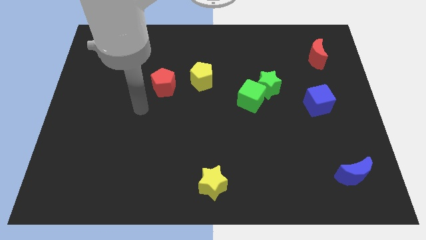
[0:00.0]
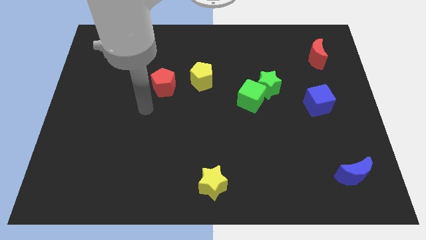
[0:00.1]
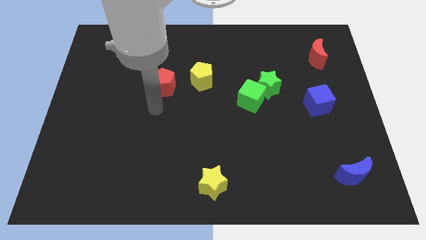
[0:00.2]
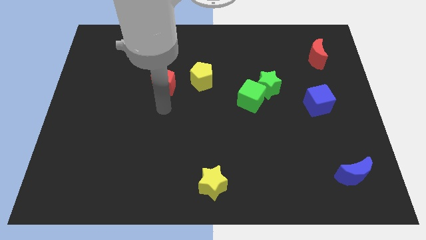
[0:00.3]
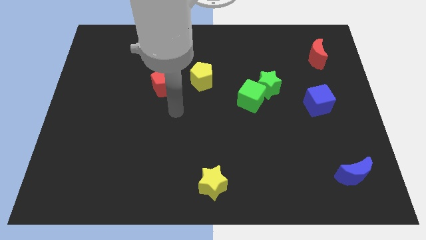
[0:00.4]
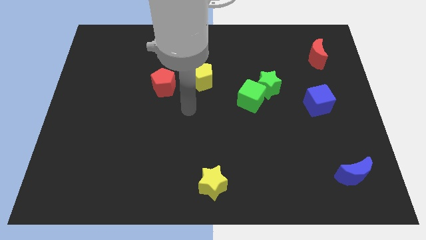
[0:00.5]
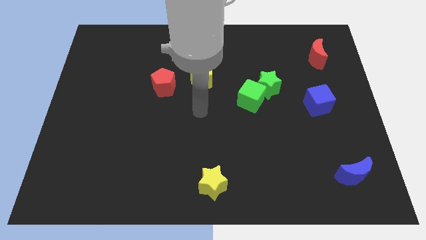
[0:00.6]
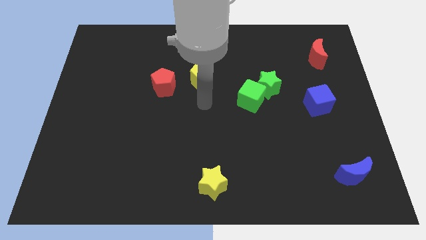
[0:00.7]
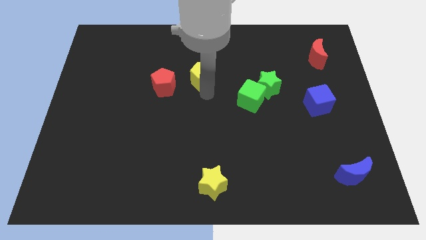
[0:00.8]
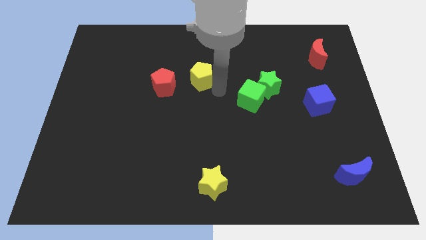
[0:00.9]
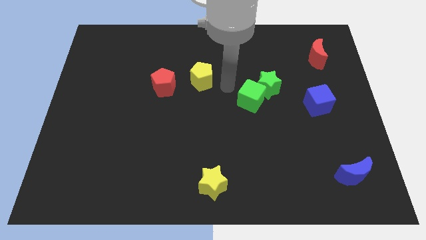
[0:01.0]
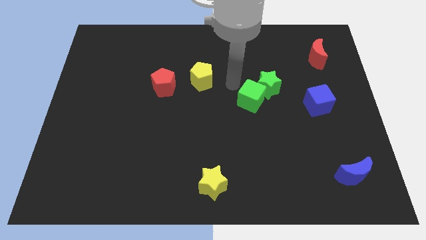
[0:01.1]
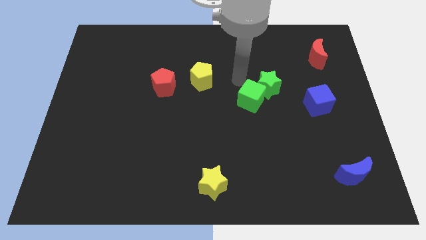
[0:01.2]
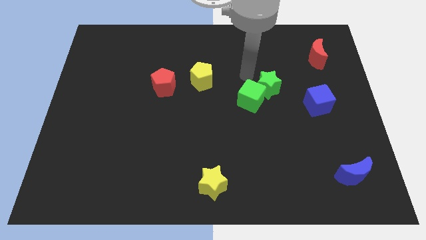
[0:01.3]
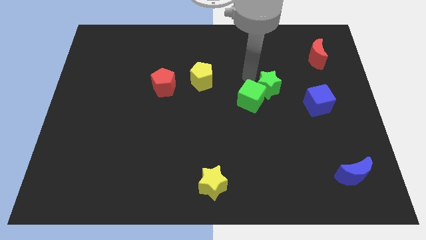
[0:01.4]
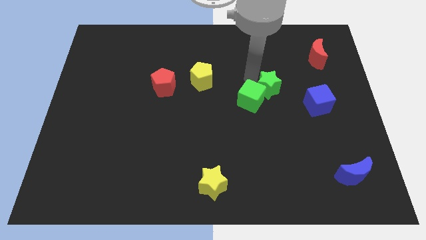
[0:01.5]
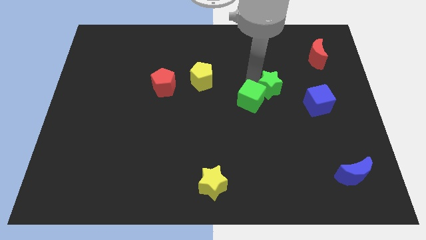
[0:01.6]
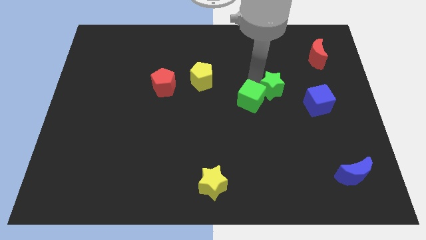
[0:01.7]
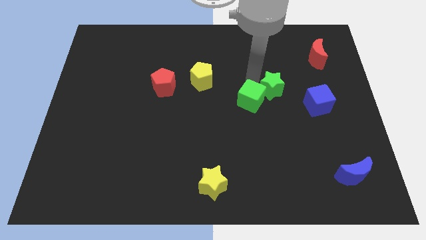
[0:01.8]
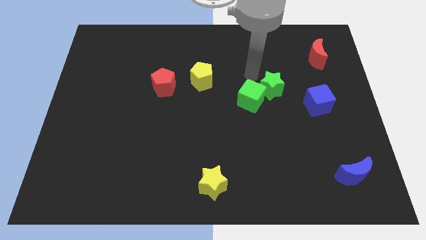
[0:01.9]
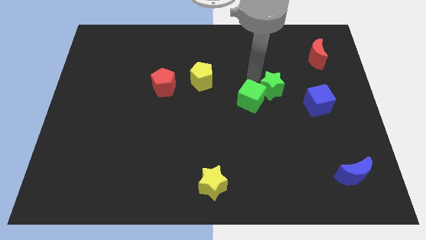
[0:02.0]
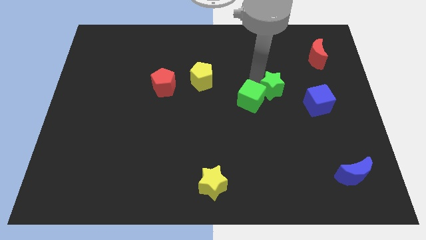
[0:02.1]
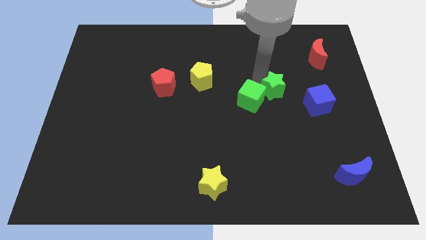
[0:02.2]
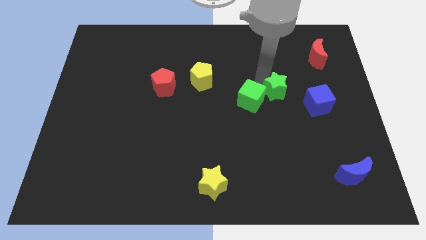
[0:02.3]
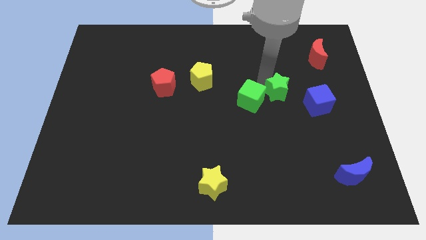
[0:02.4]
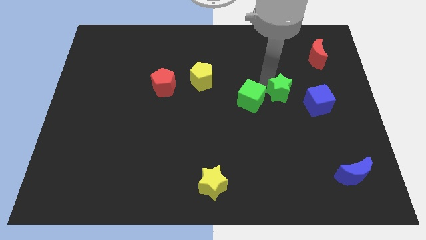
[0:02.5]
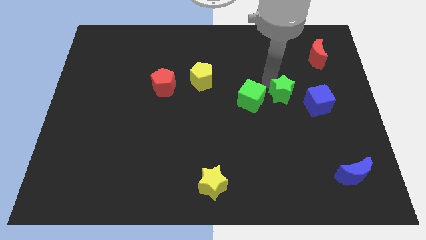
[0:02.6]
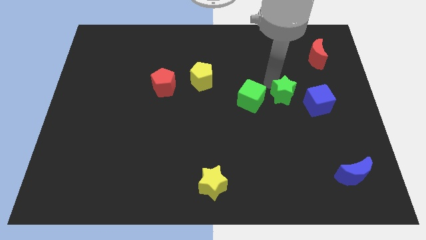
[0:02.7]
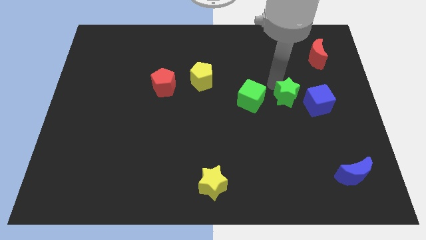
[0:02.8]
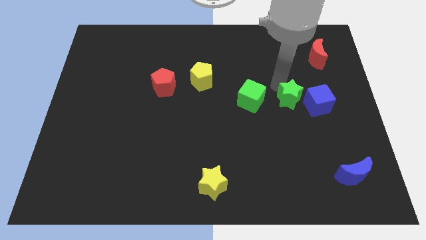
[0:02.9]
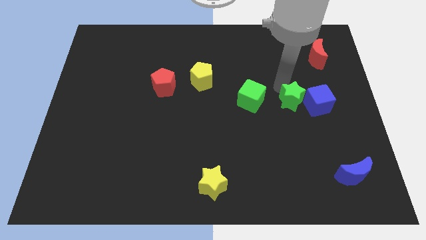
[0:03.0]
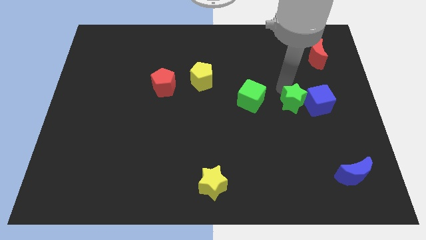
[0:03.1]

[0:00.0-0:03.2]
push the green star down and to the right a little bit

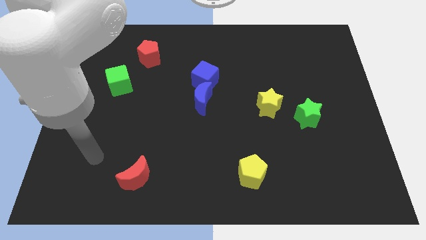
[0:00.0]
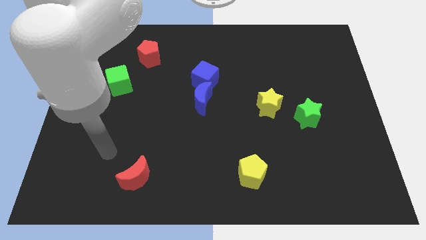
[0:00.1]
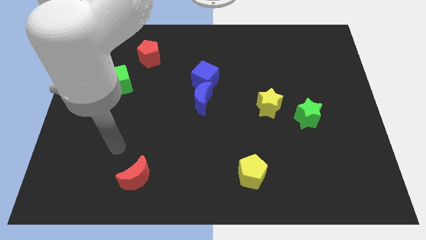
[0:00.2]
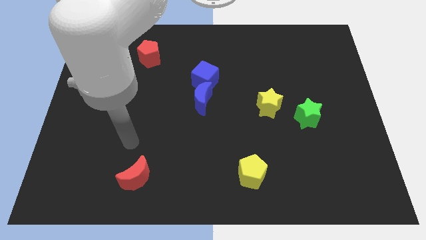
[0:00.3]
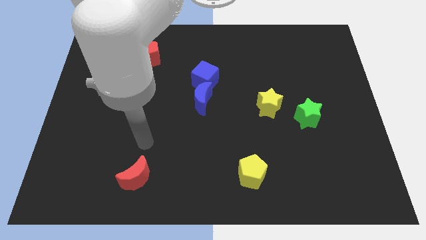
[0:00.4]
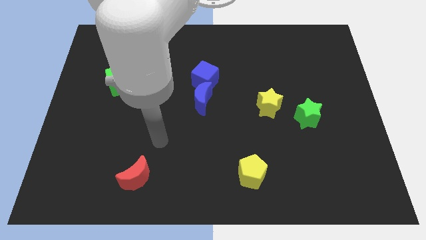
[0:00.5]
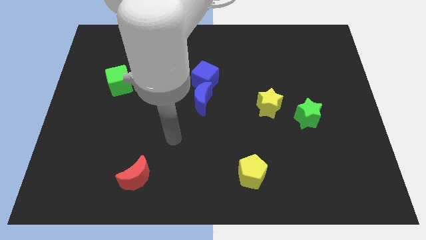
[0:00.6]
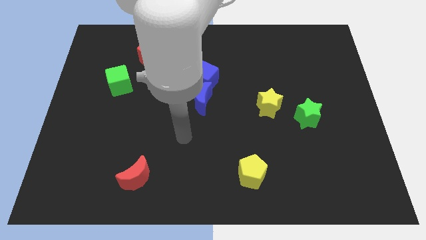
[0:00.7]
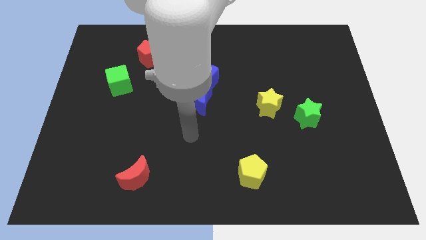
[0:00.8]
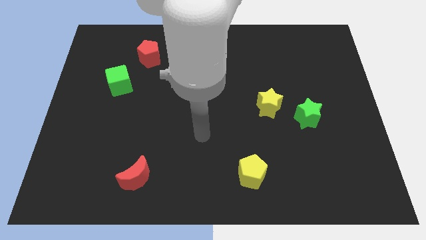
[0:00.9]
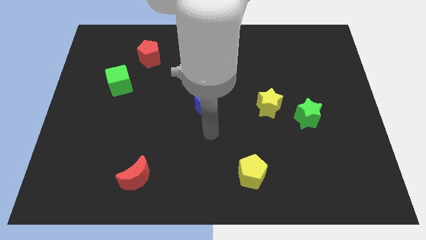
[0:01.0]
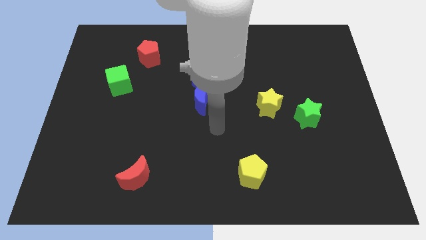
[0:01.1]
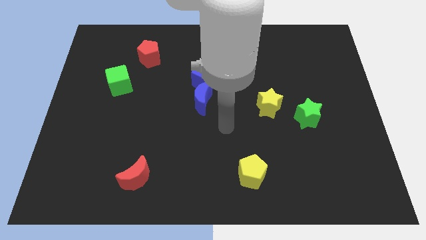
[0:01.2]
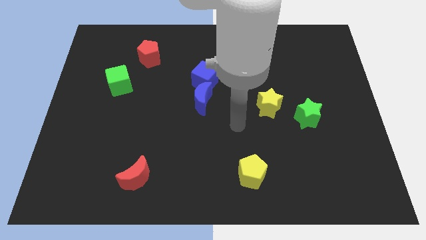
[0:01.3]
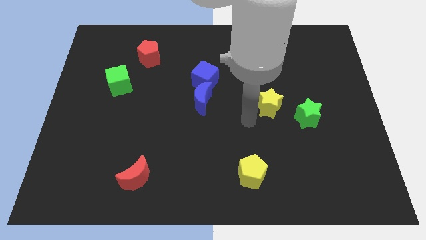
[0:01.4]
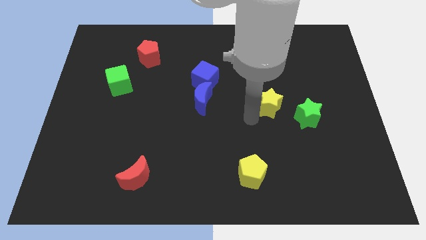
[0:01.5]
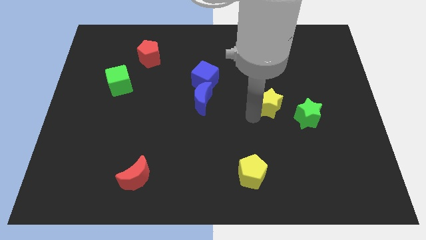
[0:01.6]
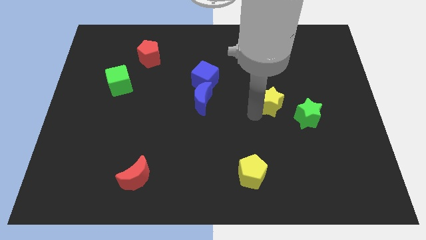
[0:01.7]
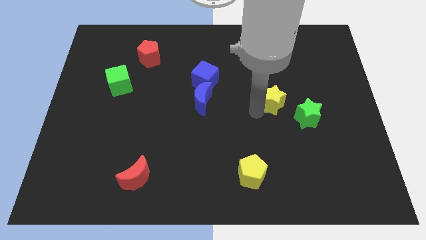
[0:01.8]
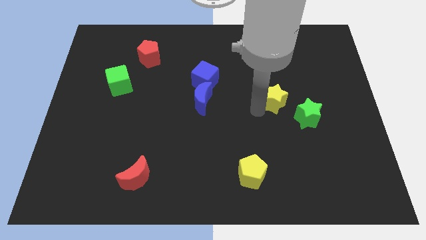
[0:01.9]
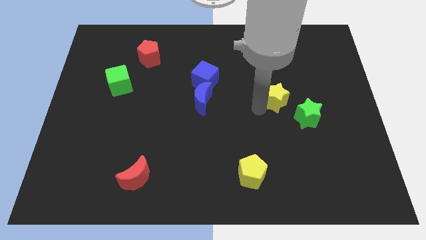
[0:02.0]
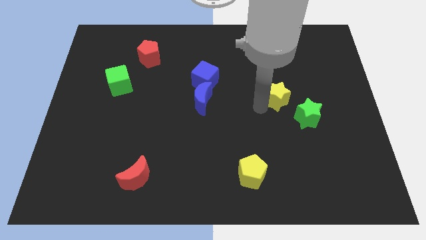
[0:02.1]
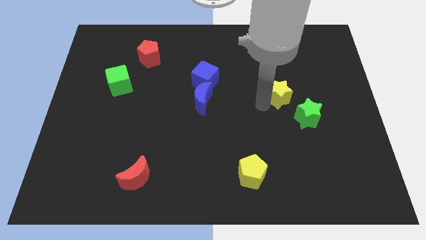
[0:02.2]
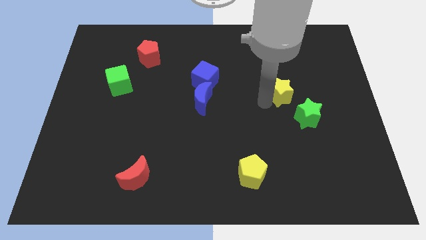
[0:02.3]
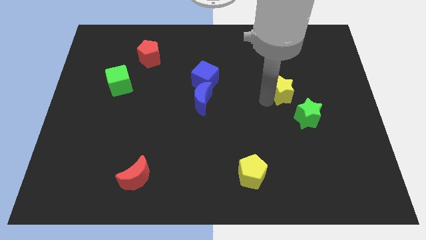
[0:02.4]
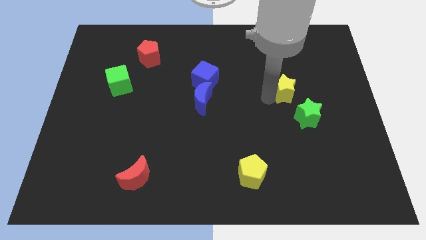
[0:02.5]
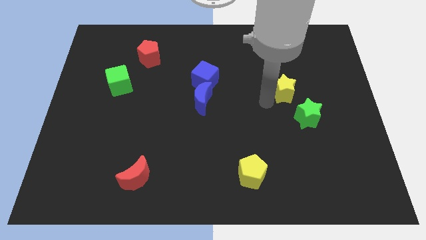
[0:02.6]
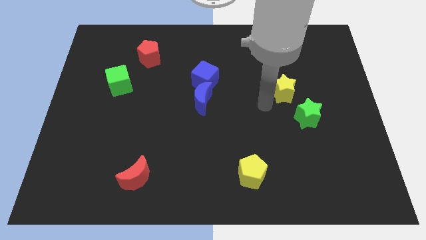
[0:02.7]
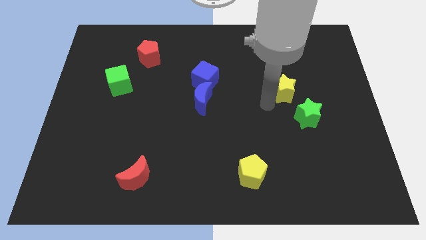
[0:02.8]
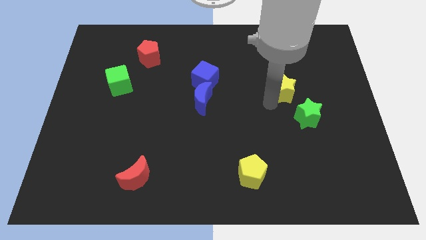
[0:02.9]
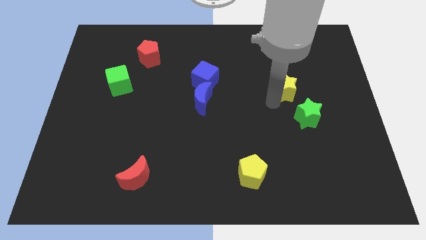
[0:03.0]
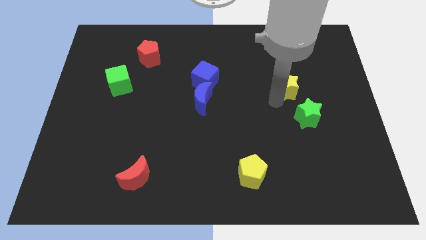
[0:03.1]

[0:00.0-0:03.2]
slightly push the yellow star upwards and then to the right

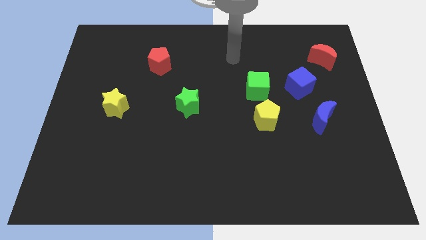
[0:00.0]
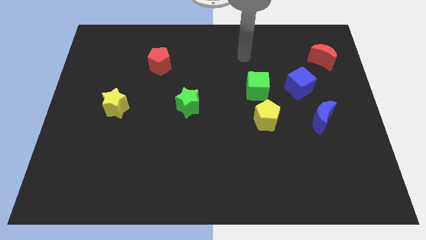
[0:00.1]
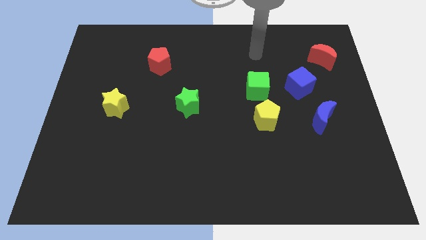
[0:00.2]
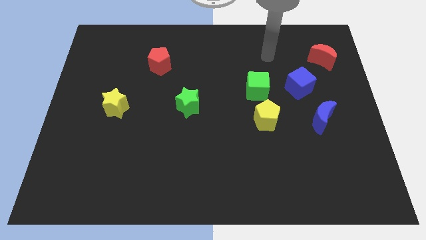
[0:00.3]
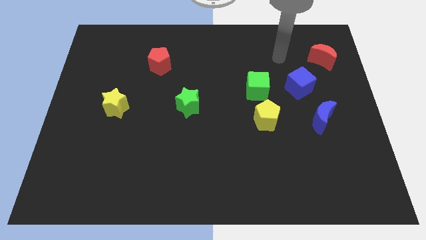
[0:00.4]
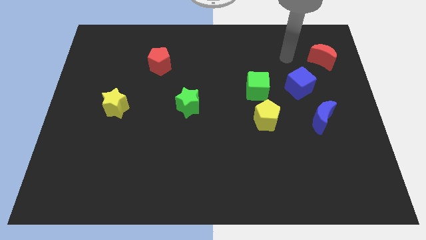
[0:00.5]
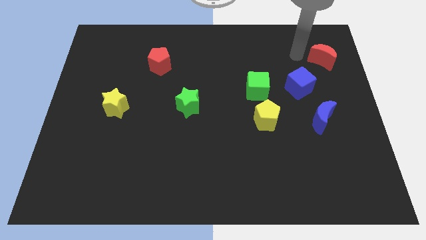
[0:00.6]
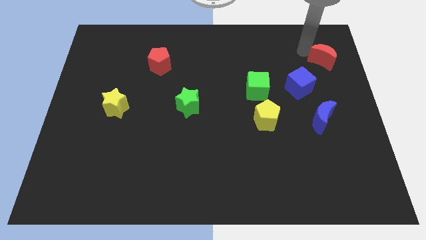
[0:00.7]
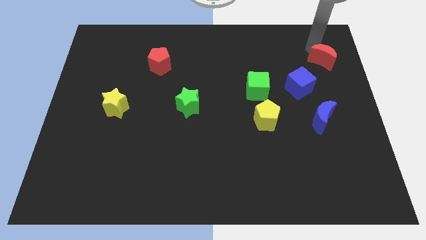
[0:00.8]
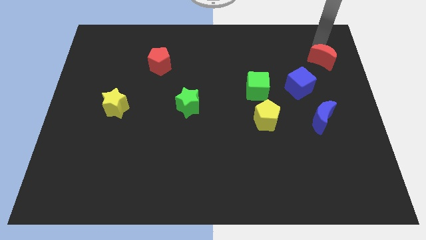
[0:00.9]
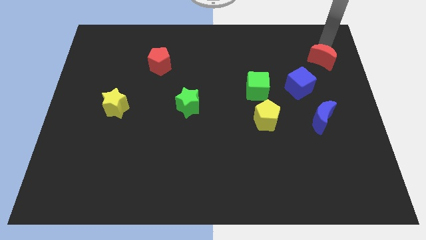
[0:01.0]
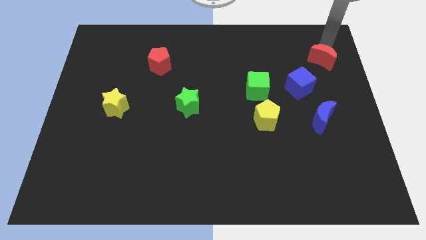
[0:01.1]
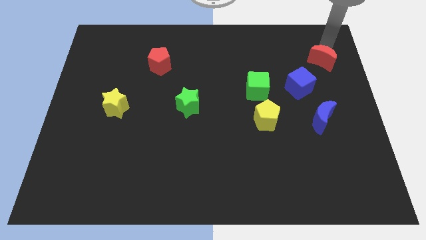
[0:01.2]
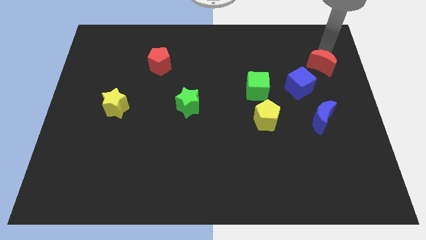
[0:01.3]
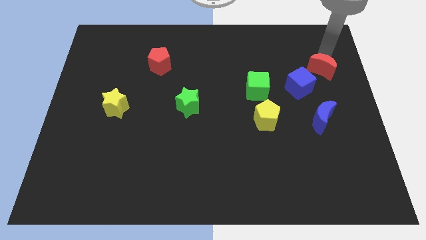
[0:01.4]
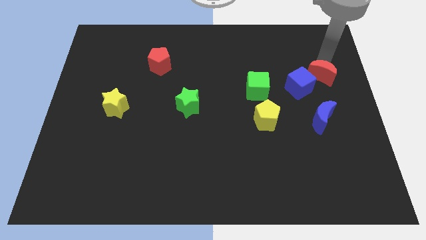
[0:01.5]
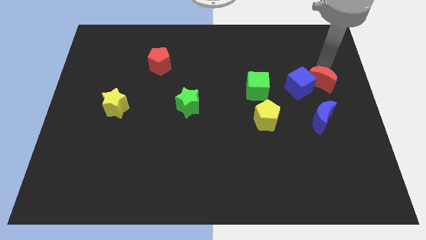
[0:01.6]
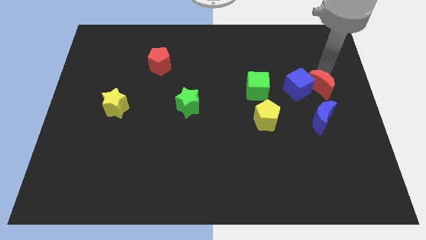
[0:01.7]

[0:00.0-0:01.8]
move the red moon down and to the left diagonally a little
